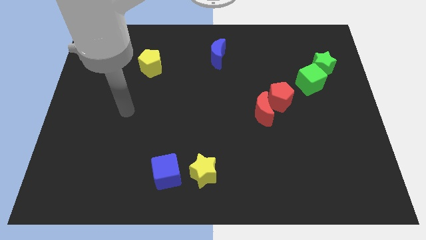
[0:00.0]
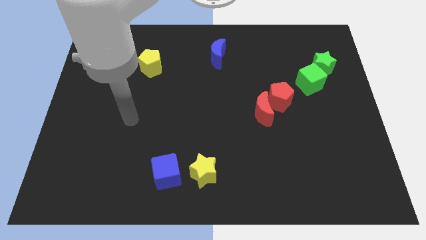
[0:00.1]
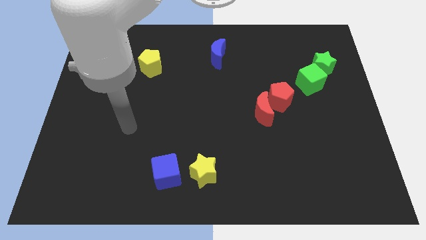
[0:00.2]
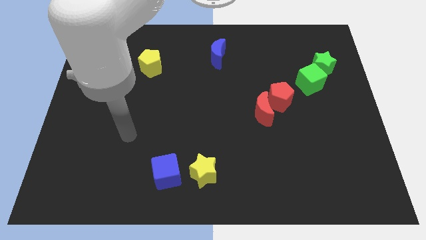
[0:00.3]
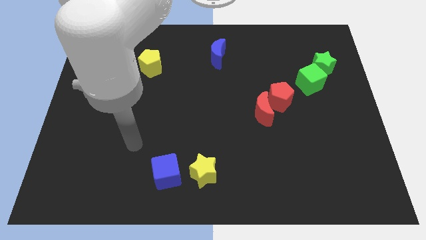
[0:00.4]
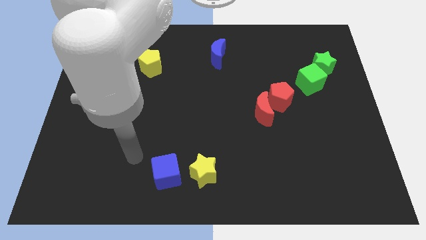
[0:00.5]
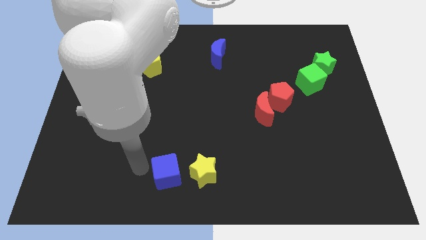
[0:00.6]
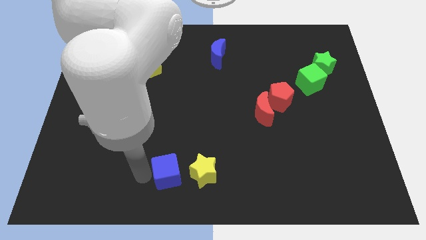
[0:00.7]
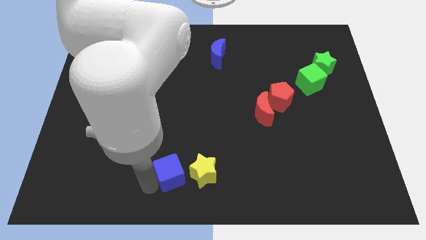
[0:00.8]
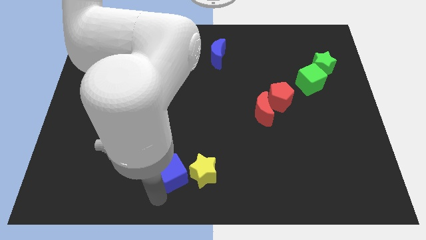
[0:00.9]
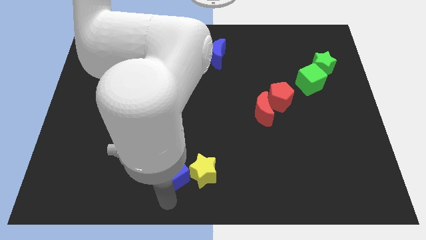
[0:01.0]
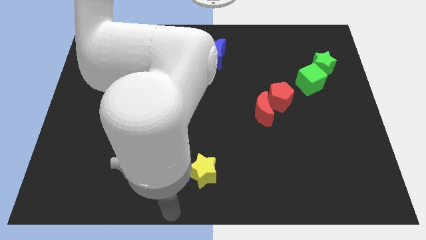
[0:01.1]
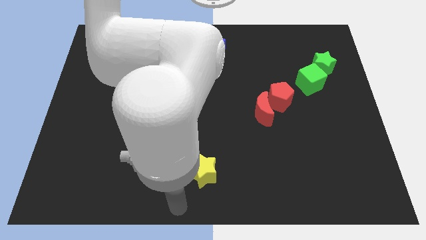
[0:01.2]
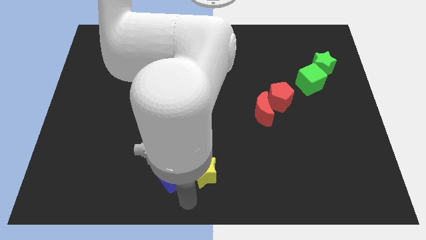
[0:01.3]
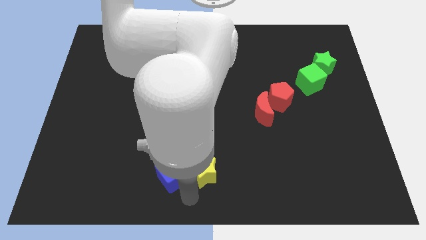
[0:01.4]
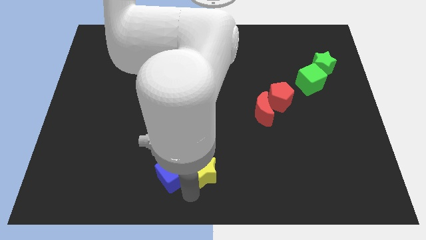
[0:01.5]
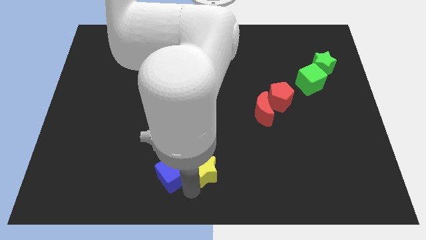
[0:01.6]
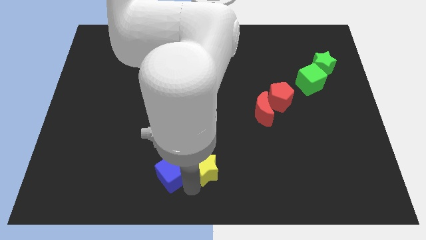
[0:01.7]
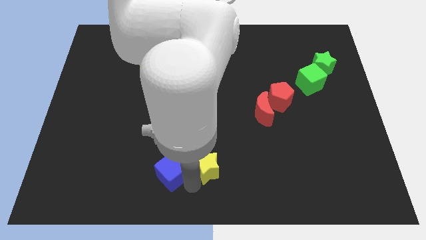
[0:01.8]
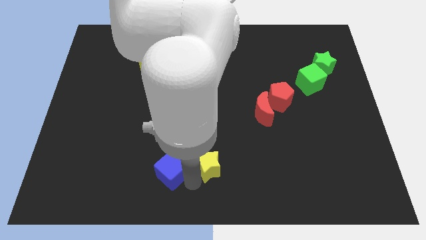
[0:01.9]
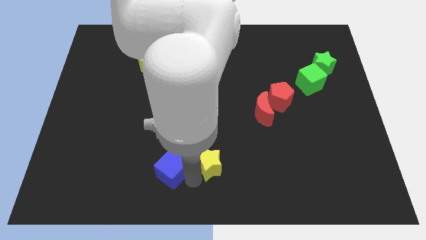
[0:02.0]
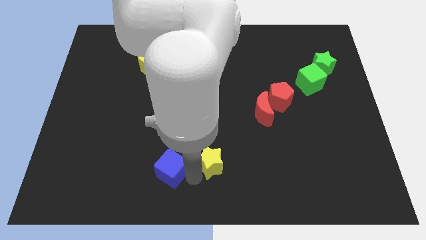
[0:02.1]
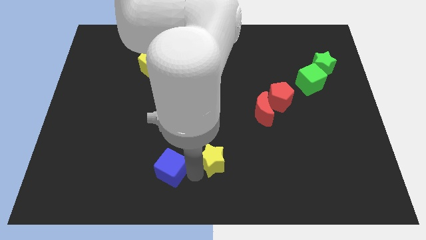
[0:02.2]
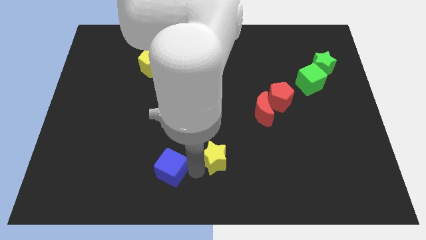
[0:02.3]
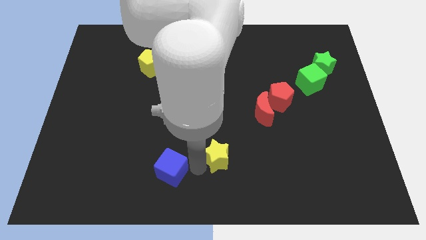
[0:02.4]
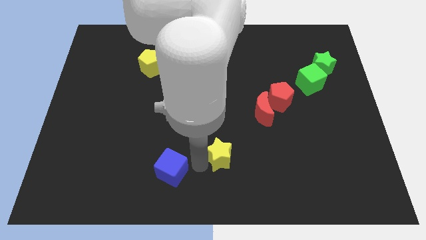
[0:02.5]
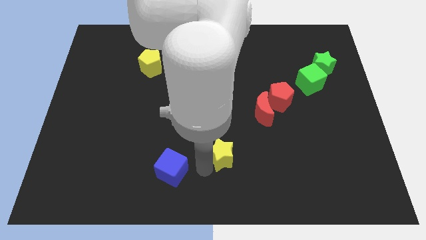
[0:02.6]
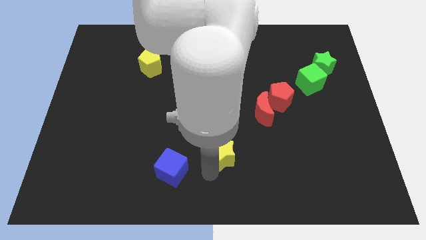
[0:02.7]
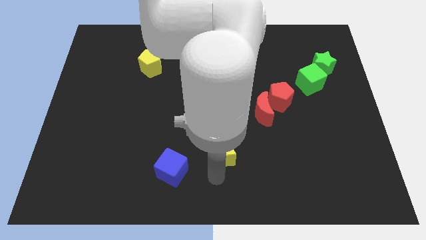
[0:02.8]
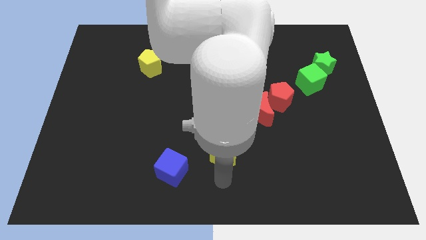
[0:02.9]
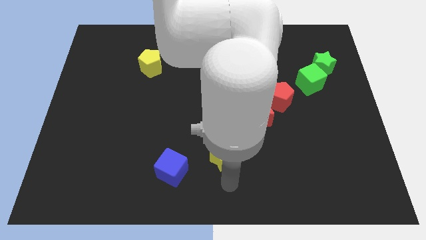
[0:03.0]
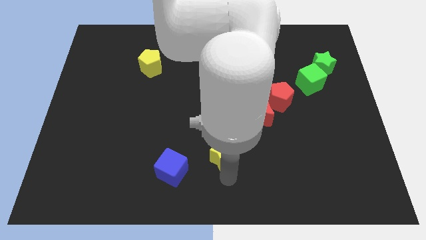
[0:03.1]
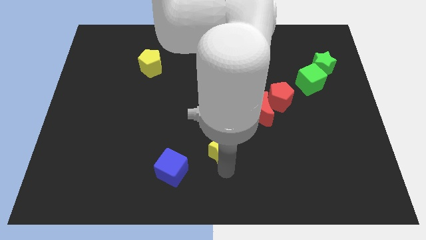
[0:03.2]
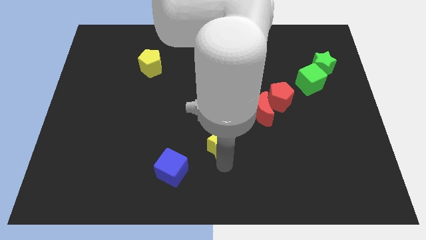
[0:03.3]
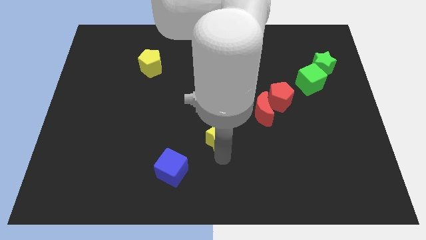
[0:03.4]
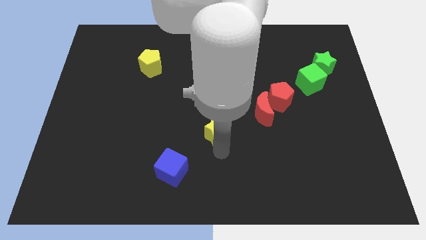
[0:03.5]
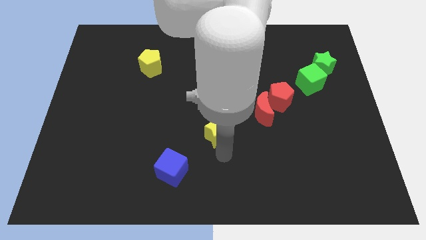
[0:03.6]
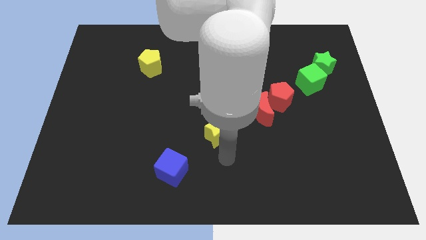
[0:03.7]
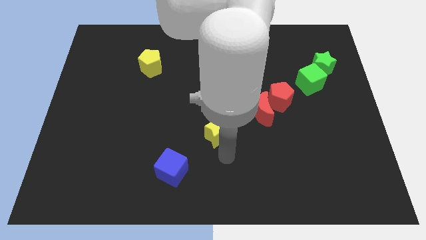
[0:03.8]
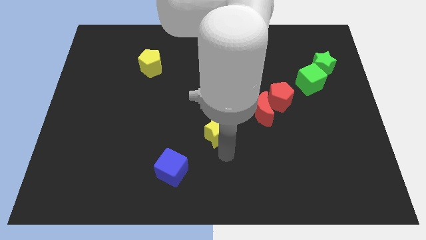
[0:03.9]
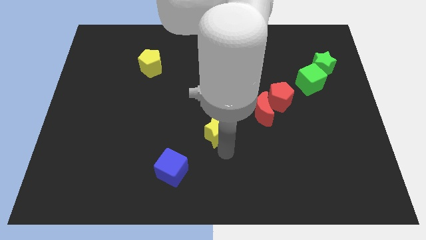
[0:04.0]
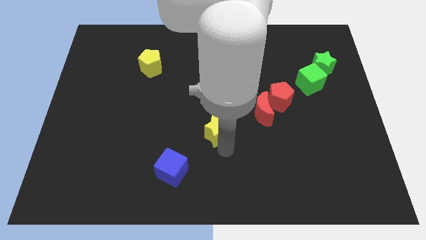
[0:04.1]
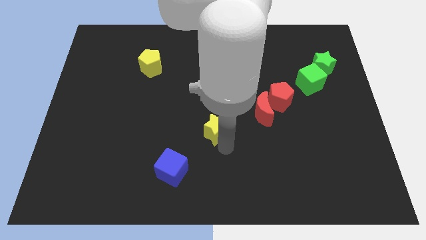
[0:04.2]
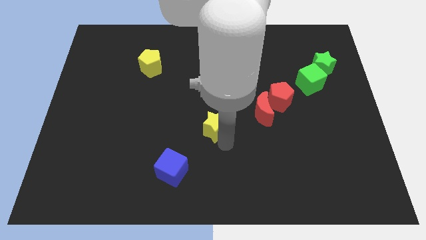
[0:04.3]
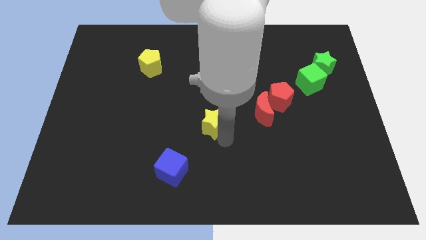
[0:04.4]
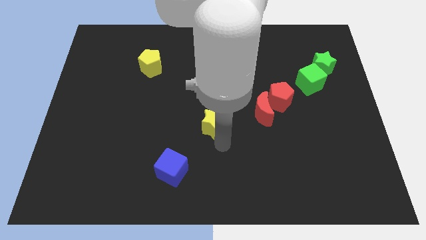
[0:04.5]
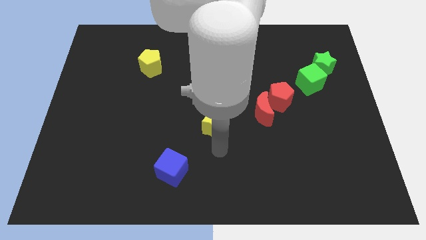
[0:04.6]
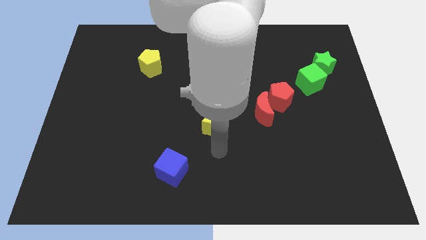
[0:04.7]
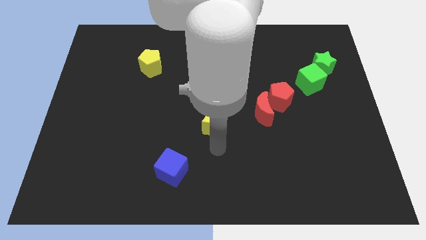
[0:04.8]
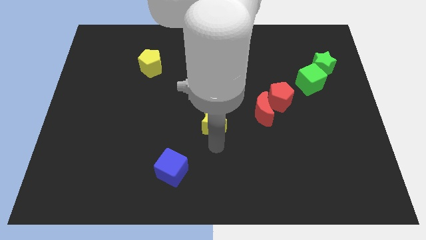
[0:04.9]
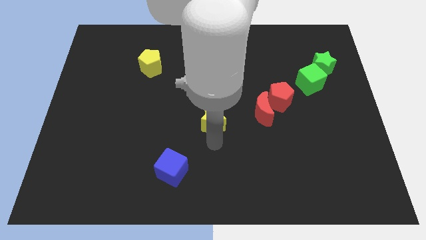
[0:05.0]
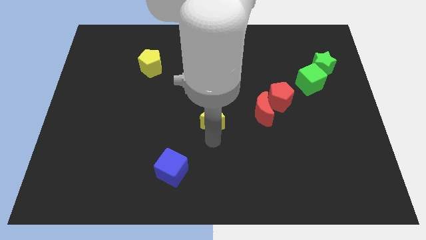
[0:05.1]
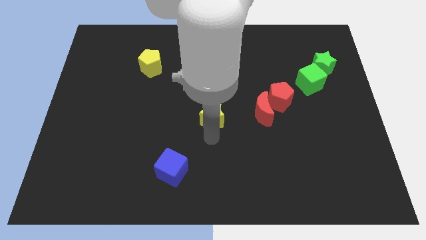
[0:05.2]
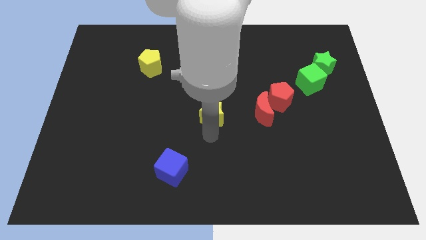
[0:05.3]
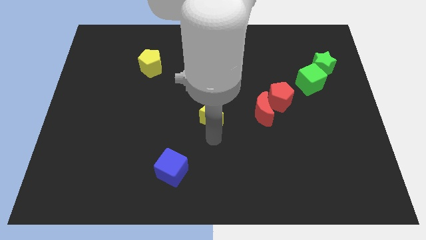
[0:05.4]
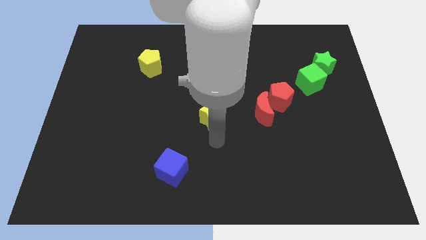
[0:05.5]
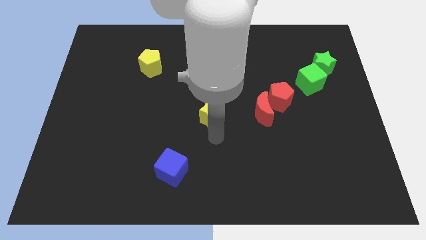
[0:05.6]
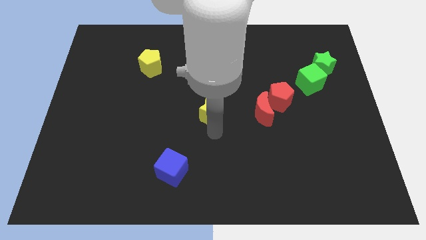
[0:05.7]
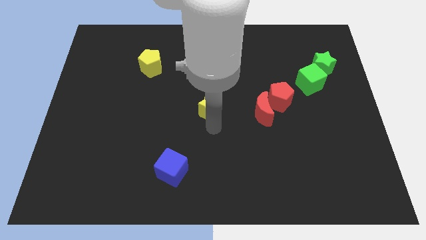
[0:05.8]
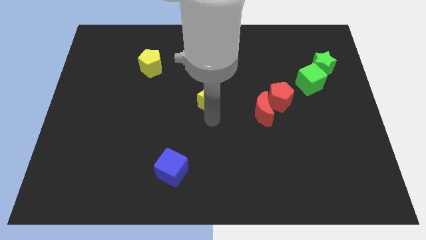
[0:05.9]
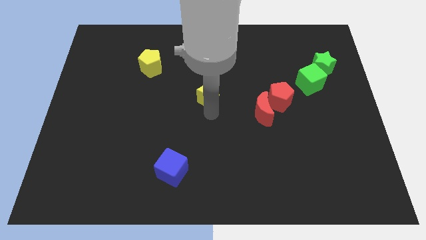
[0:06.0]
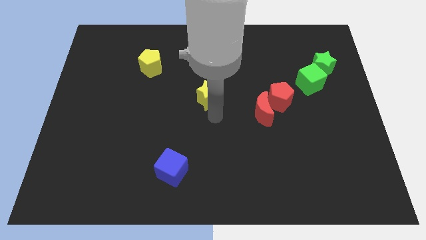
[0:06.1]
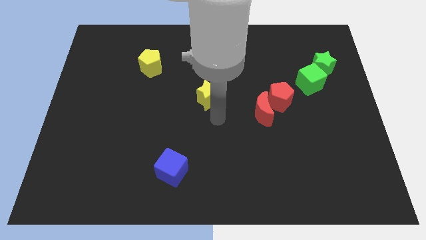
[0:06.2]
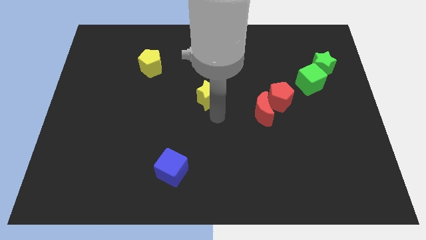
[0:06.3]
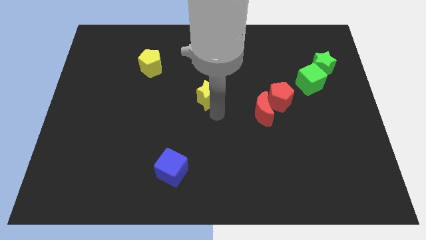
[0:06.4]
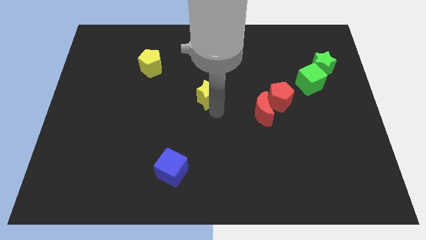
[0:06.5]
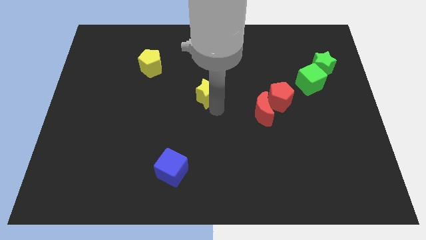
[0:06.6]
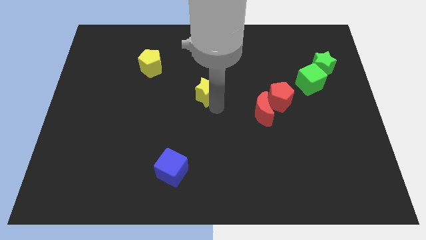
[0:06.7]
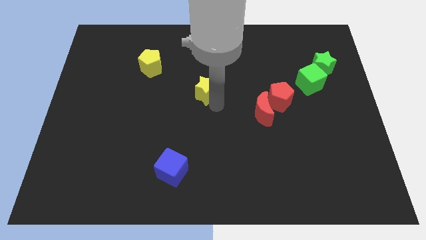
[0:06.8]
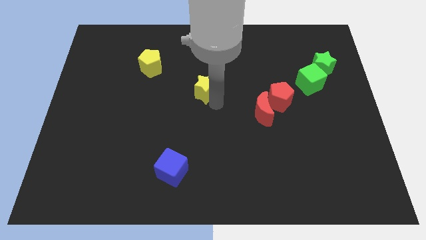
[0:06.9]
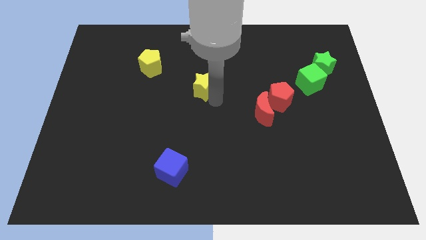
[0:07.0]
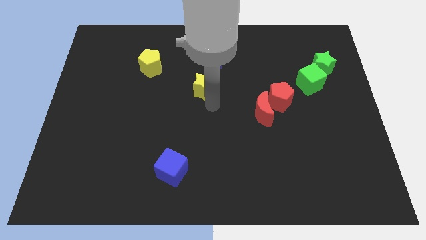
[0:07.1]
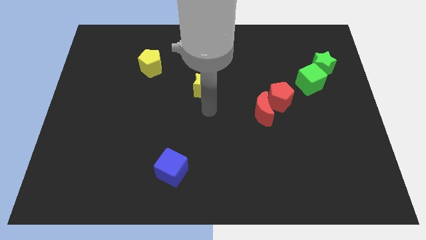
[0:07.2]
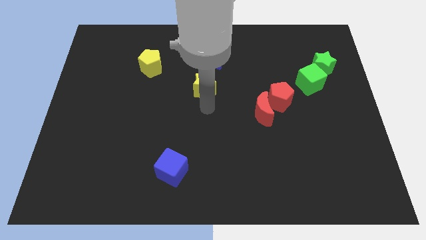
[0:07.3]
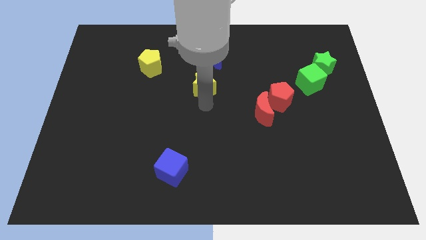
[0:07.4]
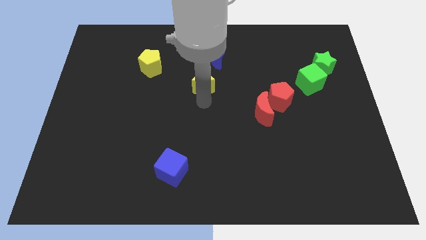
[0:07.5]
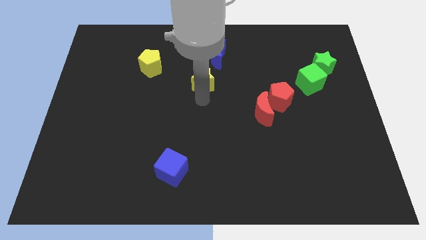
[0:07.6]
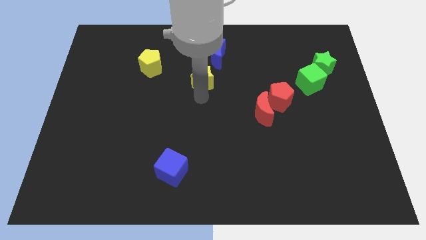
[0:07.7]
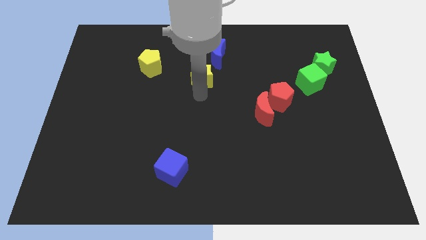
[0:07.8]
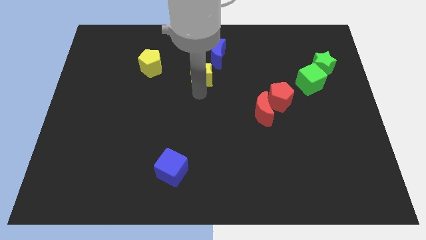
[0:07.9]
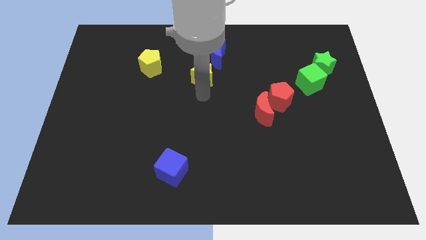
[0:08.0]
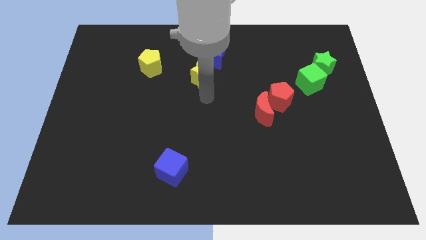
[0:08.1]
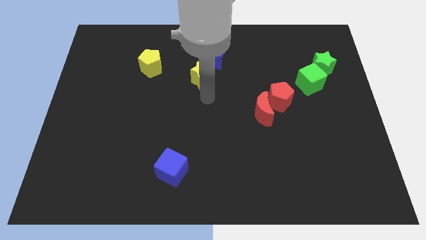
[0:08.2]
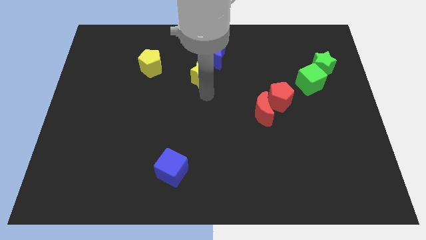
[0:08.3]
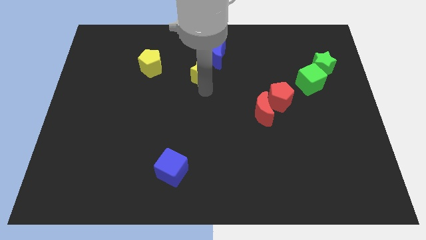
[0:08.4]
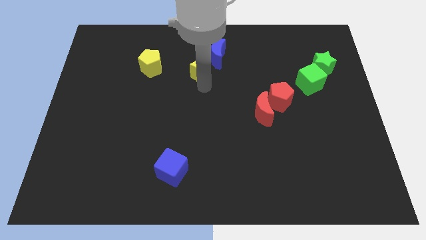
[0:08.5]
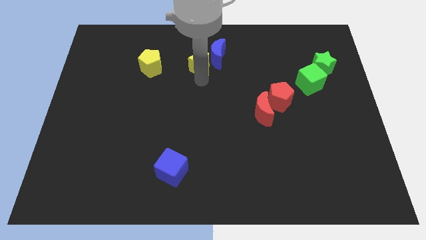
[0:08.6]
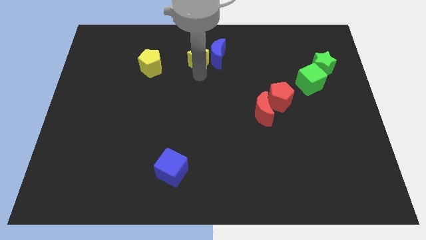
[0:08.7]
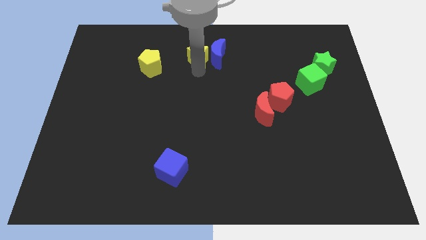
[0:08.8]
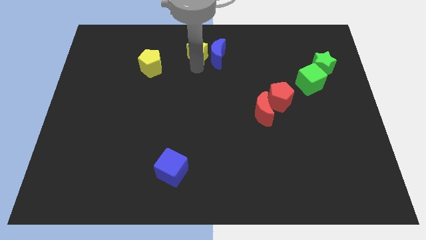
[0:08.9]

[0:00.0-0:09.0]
push the yellow star to the top
